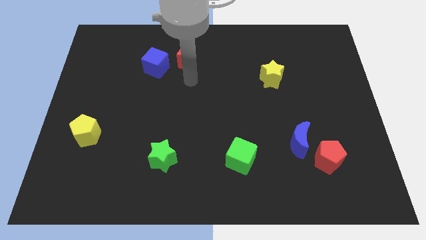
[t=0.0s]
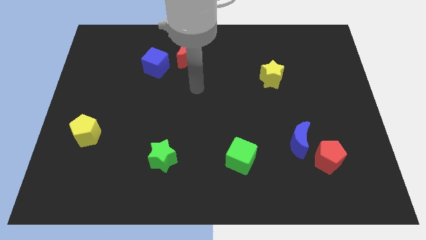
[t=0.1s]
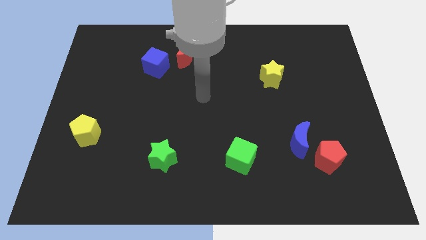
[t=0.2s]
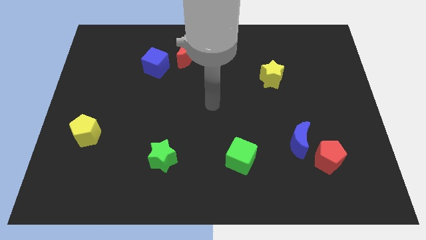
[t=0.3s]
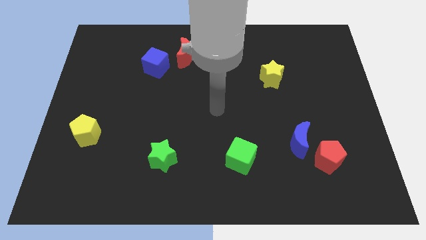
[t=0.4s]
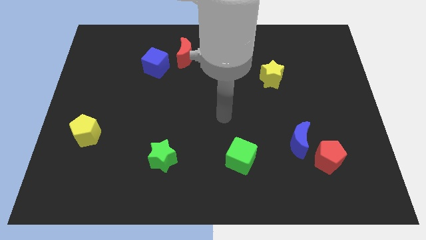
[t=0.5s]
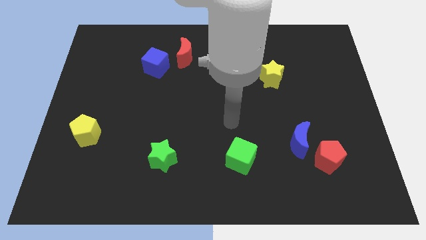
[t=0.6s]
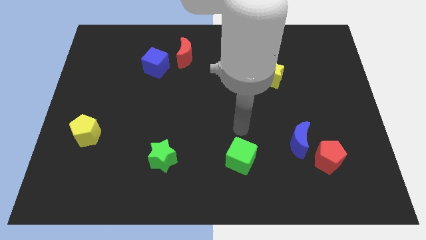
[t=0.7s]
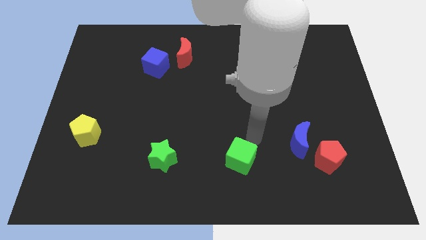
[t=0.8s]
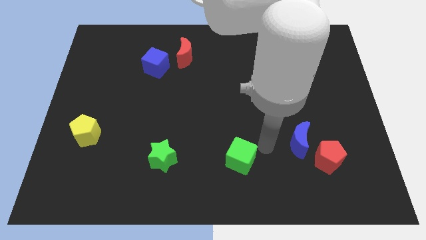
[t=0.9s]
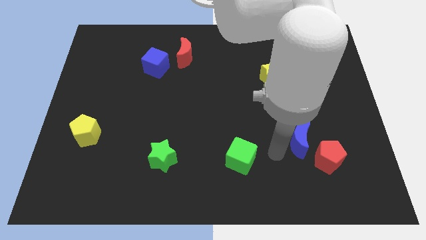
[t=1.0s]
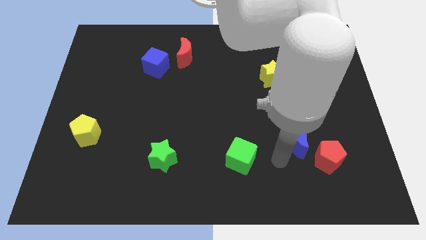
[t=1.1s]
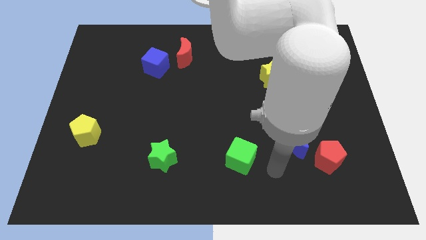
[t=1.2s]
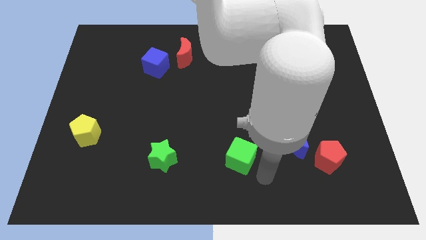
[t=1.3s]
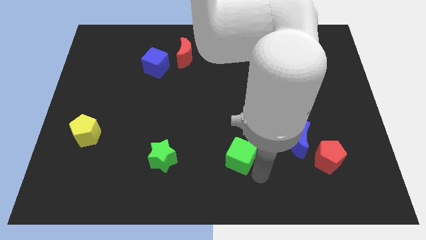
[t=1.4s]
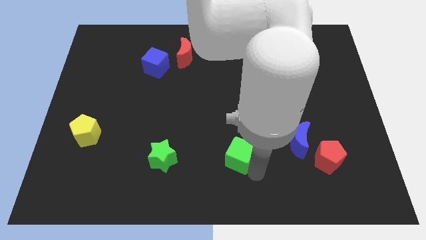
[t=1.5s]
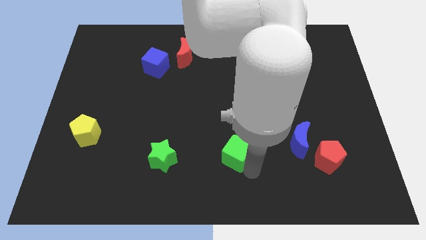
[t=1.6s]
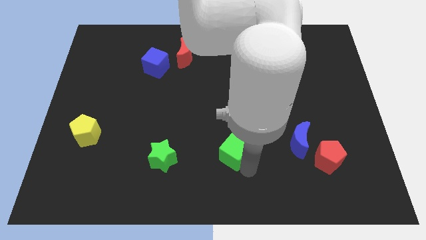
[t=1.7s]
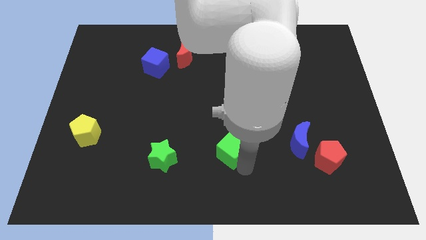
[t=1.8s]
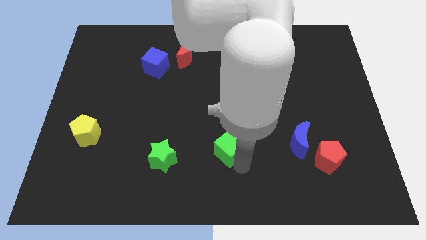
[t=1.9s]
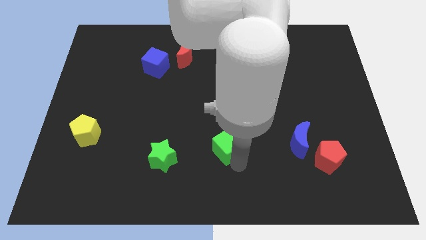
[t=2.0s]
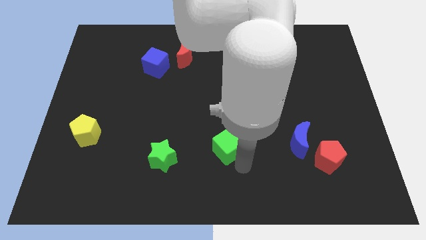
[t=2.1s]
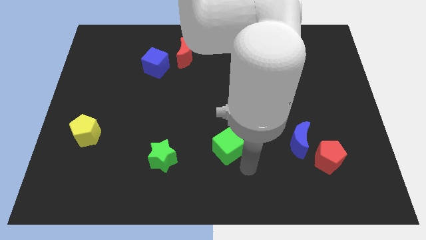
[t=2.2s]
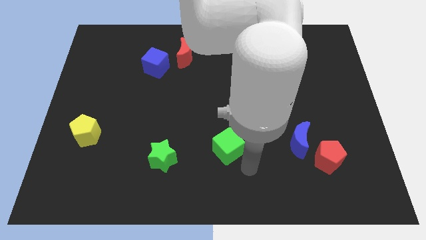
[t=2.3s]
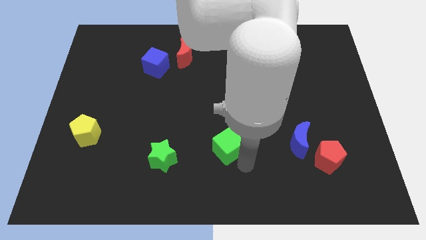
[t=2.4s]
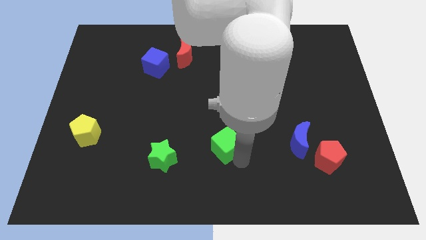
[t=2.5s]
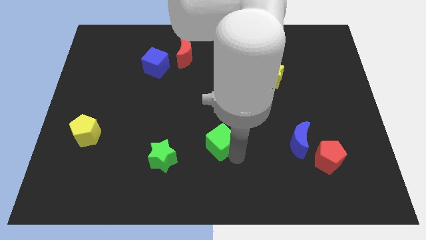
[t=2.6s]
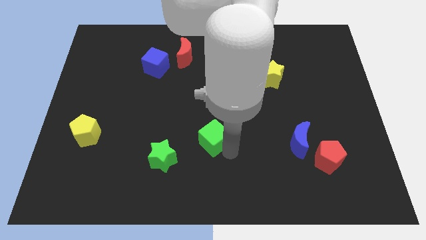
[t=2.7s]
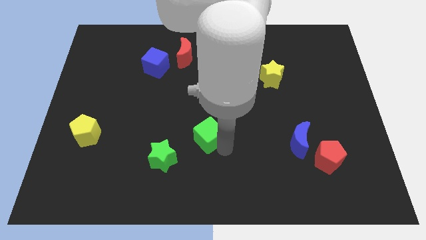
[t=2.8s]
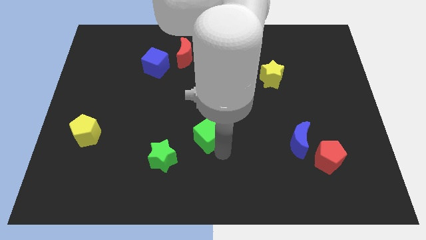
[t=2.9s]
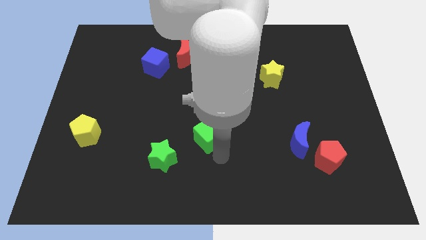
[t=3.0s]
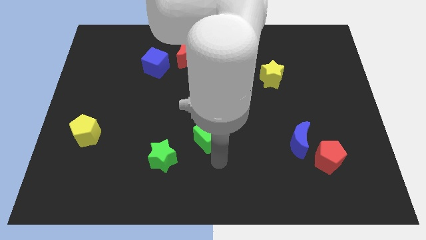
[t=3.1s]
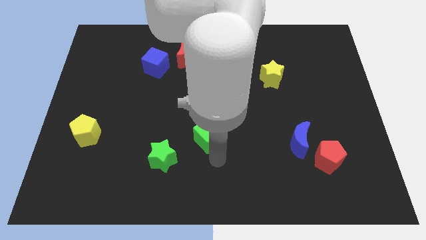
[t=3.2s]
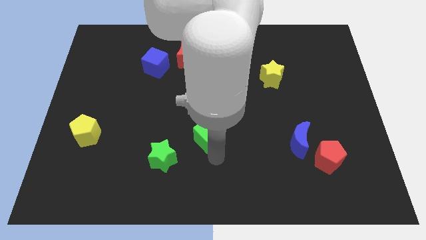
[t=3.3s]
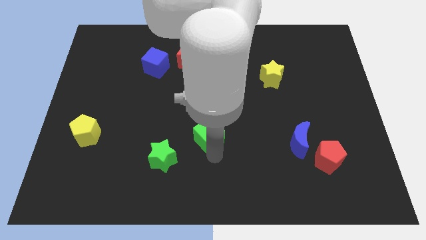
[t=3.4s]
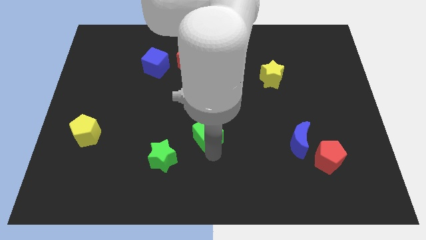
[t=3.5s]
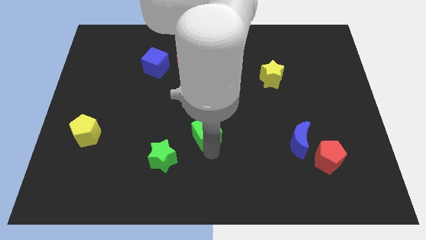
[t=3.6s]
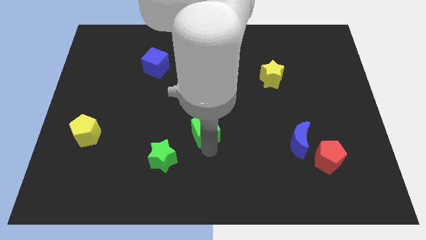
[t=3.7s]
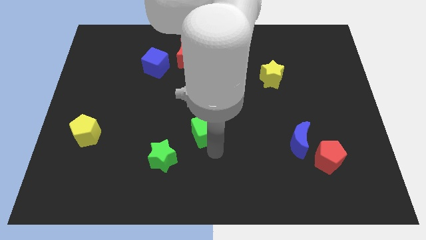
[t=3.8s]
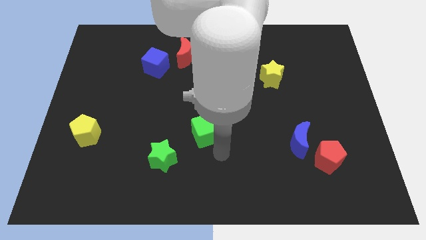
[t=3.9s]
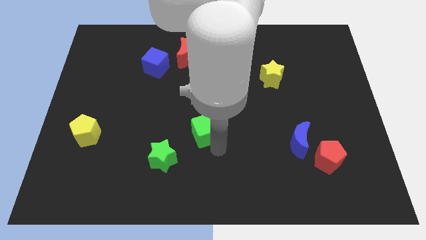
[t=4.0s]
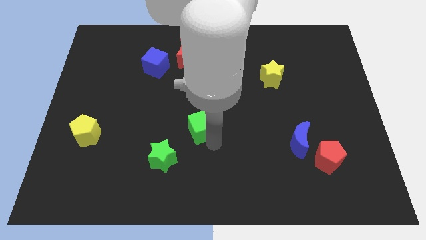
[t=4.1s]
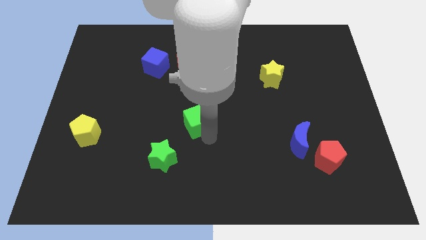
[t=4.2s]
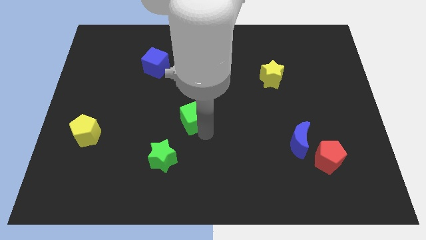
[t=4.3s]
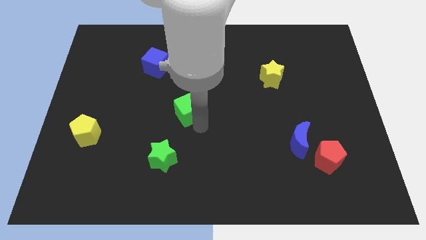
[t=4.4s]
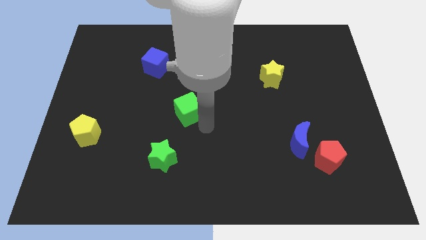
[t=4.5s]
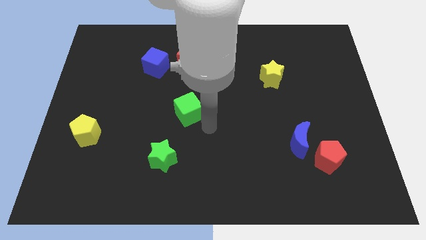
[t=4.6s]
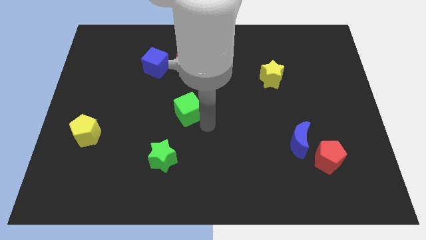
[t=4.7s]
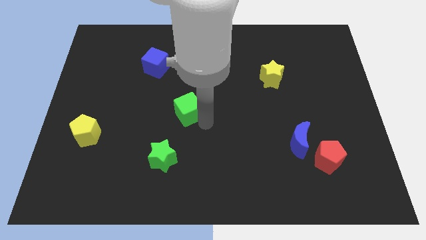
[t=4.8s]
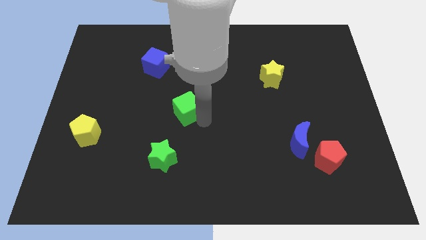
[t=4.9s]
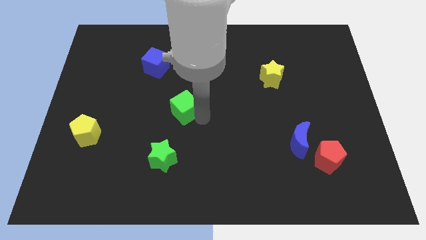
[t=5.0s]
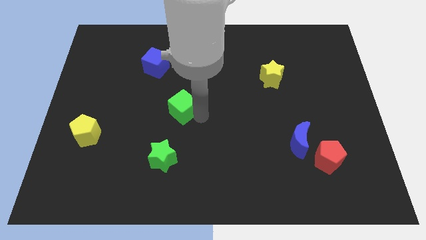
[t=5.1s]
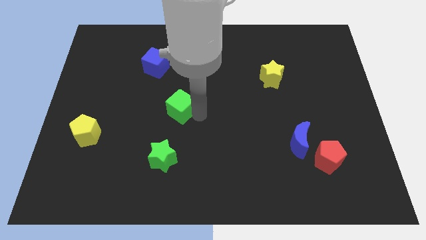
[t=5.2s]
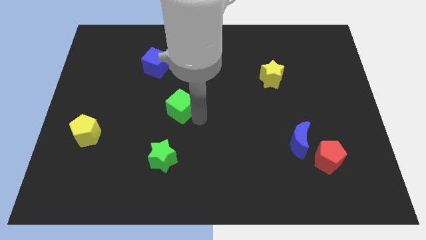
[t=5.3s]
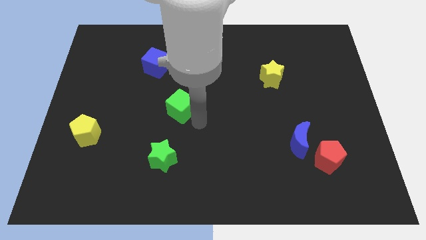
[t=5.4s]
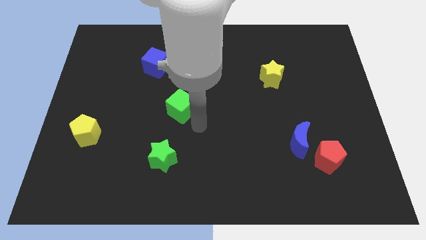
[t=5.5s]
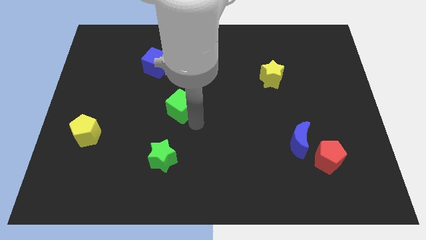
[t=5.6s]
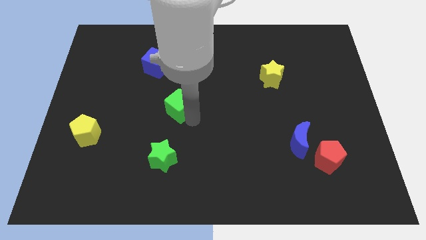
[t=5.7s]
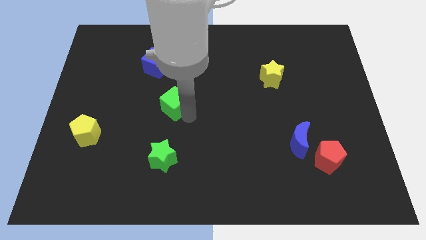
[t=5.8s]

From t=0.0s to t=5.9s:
slide the green cube up and left diagonally

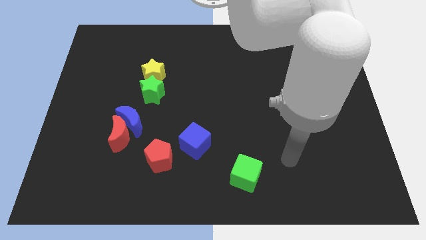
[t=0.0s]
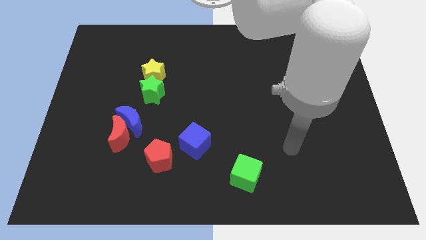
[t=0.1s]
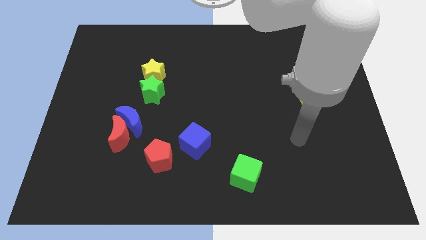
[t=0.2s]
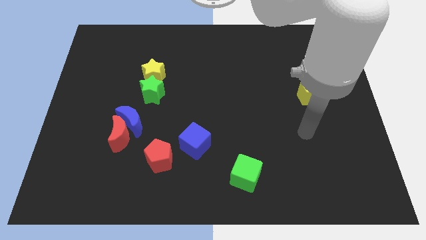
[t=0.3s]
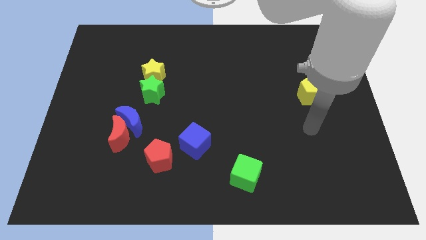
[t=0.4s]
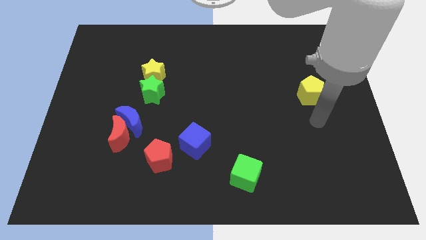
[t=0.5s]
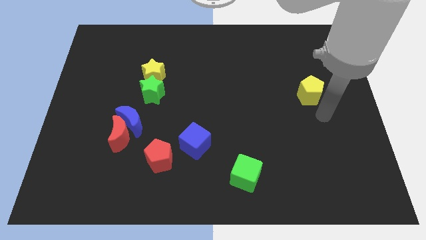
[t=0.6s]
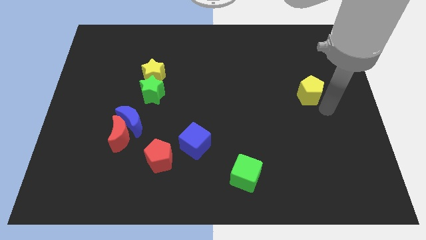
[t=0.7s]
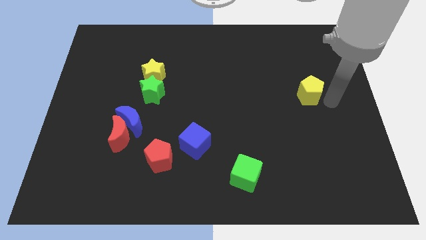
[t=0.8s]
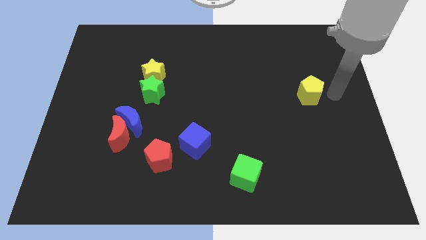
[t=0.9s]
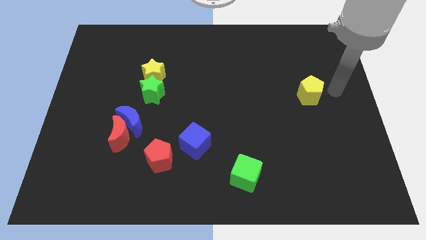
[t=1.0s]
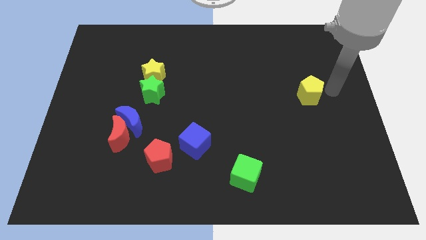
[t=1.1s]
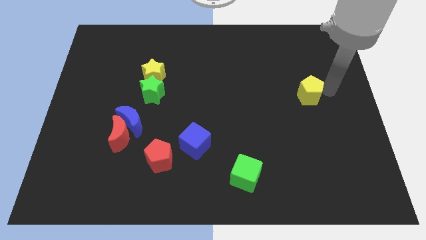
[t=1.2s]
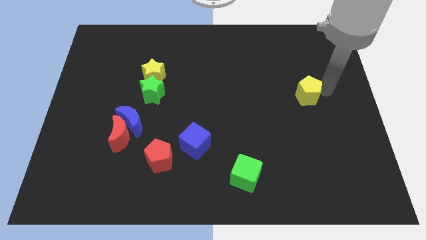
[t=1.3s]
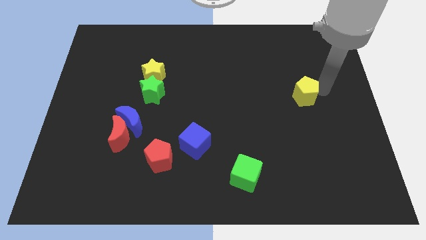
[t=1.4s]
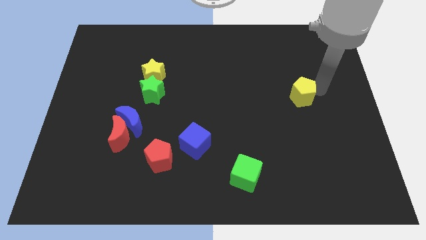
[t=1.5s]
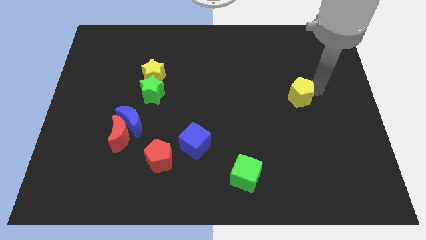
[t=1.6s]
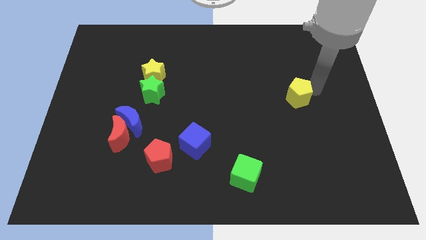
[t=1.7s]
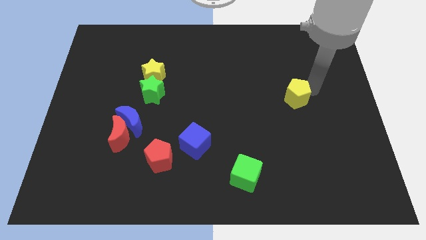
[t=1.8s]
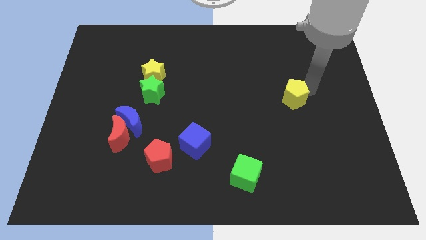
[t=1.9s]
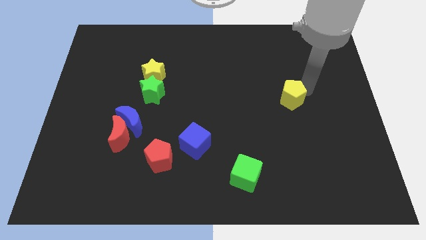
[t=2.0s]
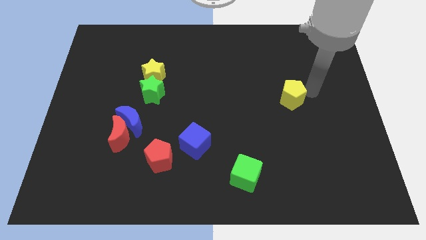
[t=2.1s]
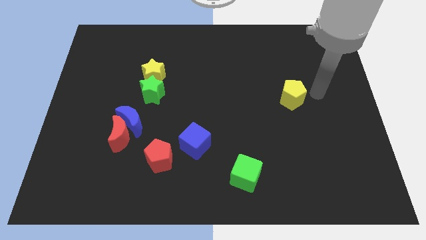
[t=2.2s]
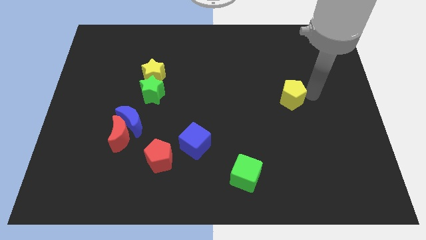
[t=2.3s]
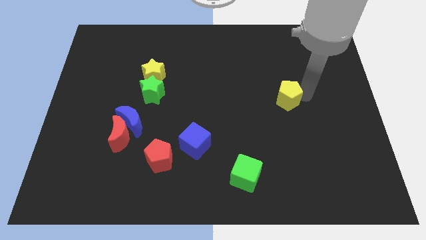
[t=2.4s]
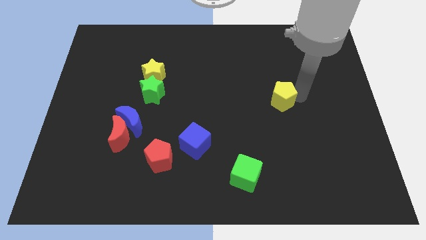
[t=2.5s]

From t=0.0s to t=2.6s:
slightly push the yellow pentagon to the left
